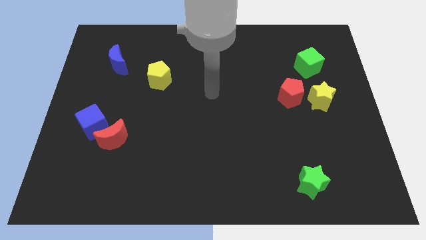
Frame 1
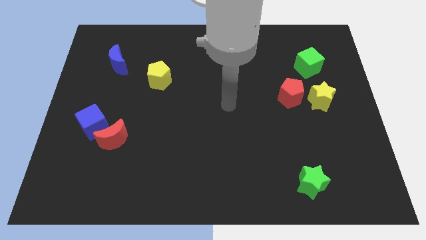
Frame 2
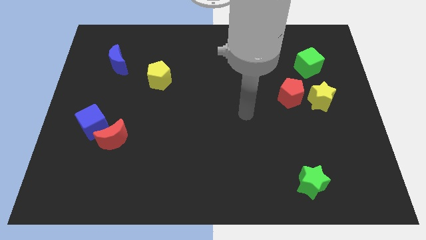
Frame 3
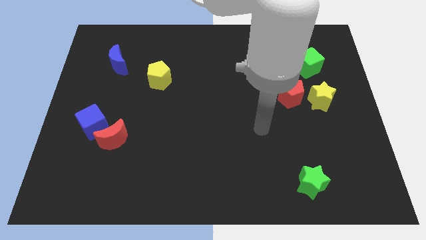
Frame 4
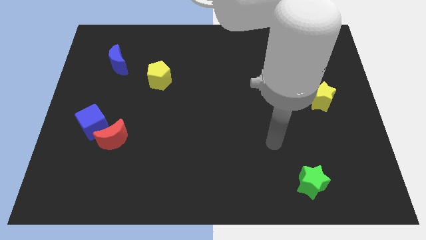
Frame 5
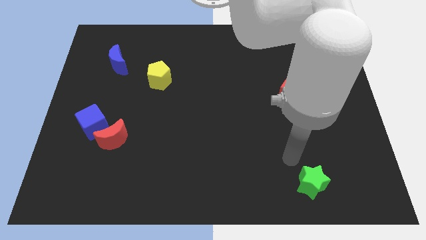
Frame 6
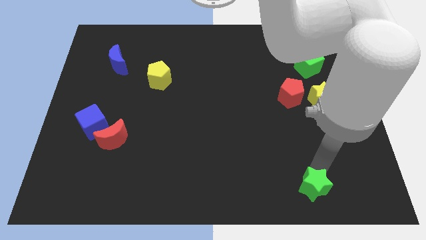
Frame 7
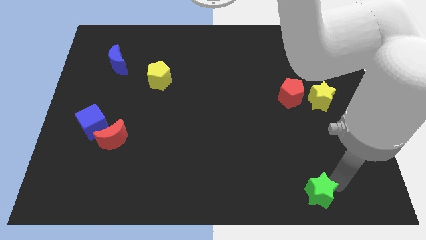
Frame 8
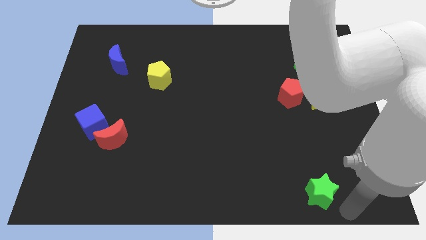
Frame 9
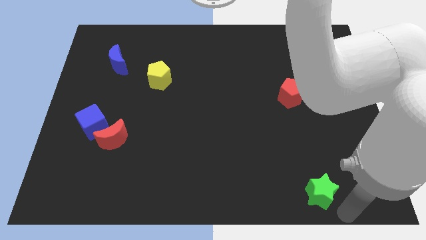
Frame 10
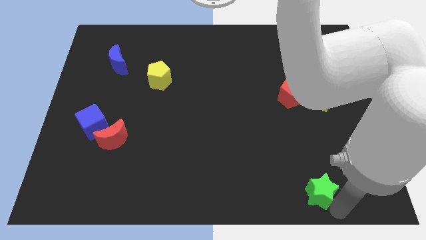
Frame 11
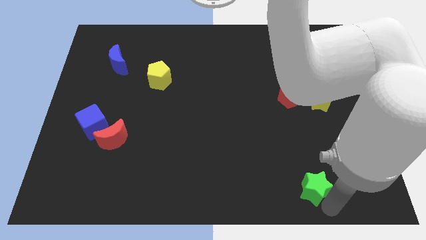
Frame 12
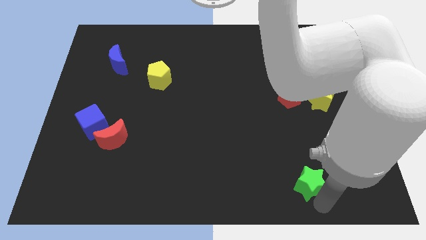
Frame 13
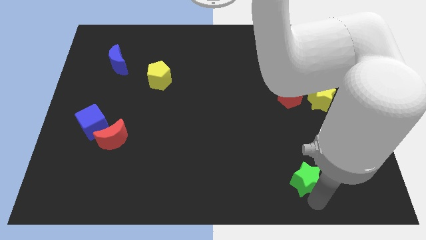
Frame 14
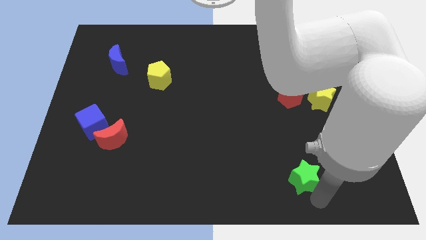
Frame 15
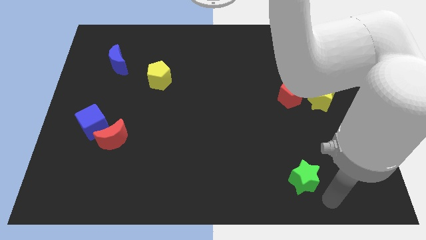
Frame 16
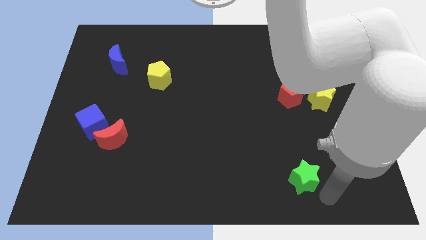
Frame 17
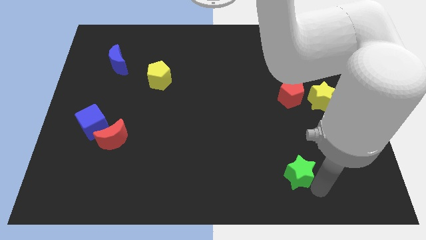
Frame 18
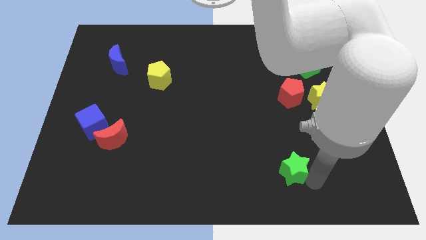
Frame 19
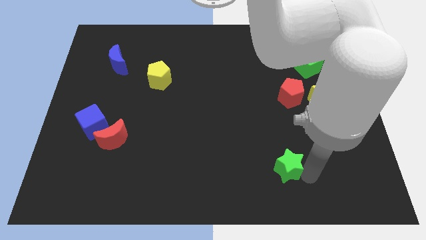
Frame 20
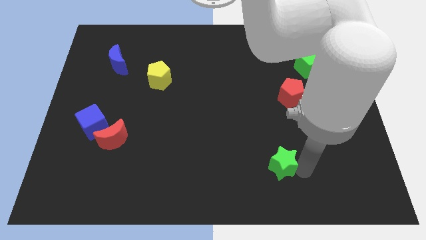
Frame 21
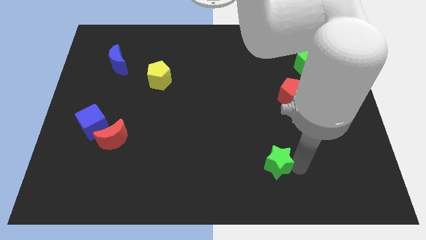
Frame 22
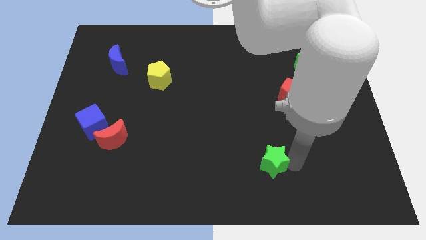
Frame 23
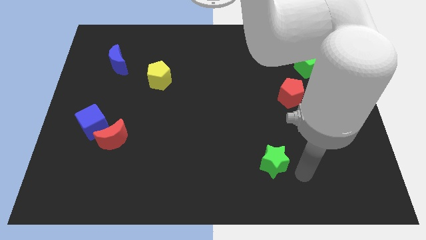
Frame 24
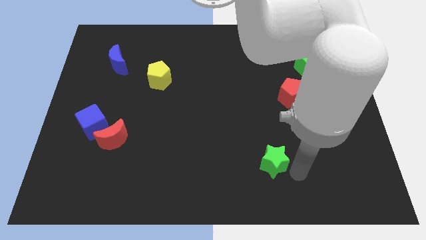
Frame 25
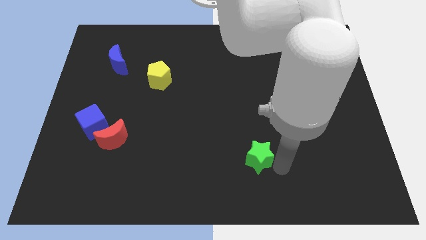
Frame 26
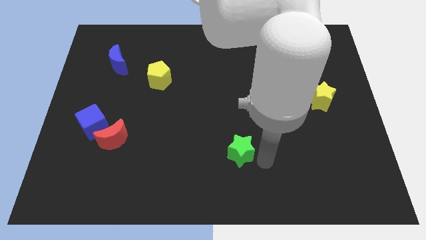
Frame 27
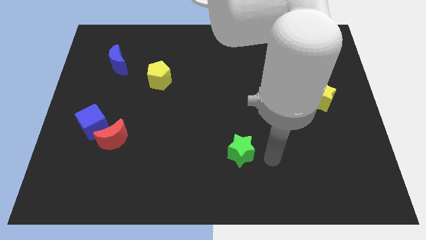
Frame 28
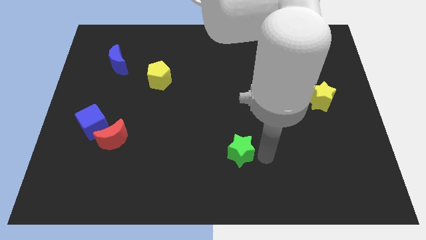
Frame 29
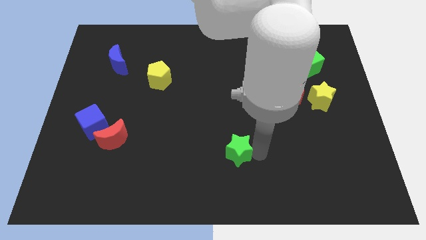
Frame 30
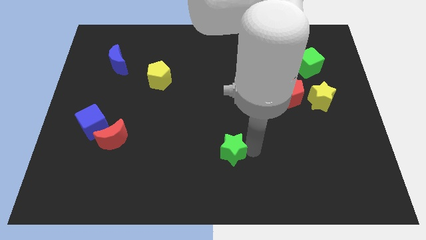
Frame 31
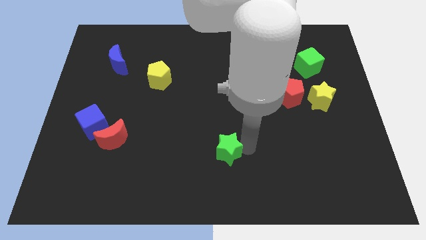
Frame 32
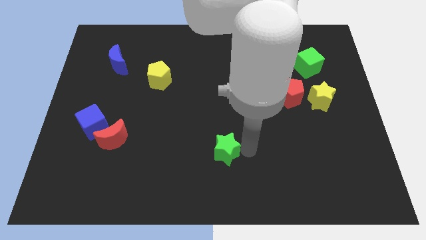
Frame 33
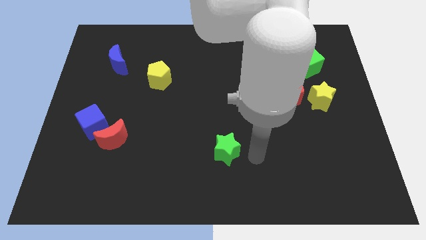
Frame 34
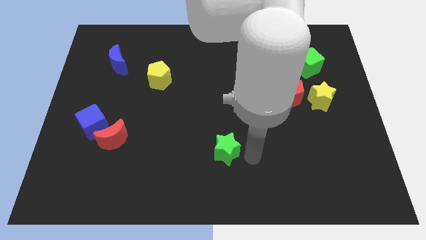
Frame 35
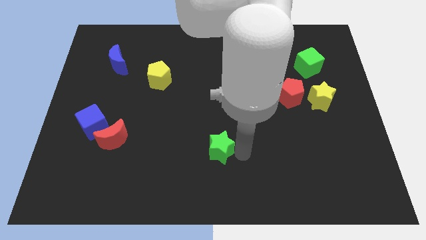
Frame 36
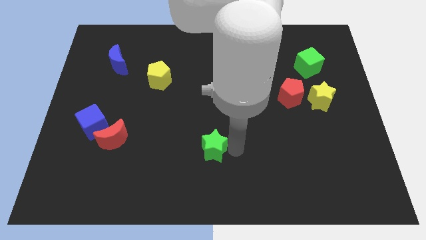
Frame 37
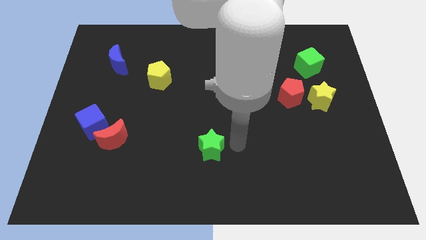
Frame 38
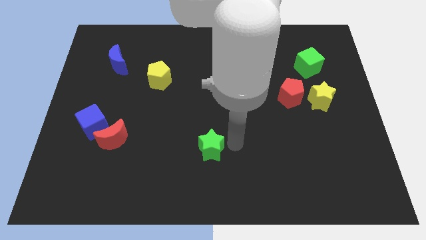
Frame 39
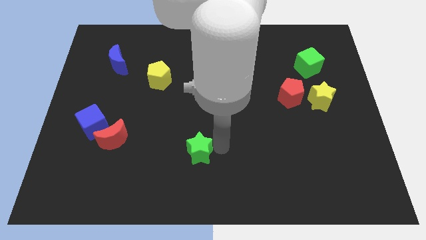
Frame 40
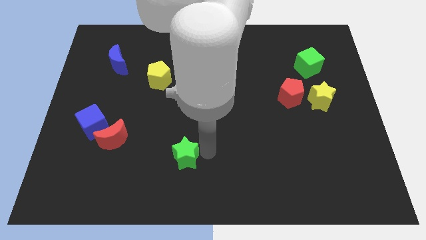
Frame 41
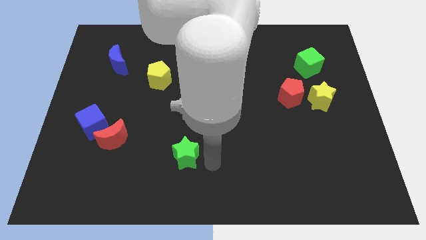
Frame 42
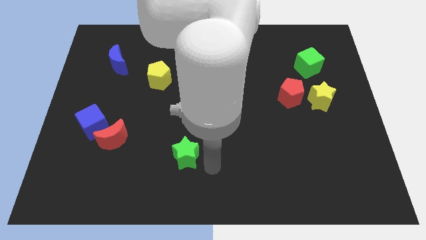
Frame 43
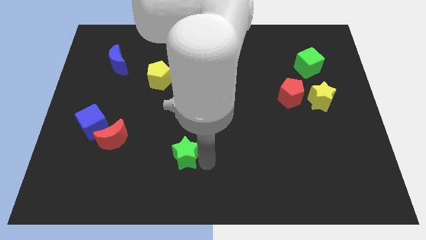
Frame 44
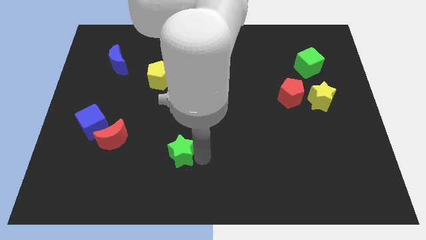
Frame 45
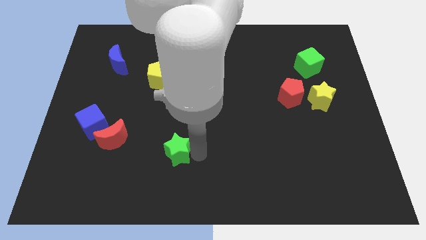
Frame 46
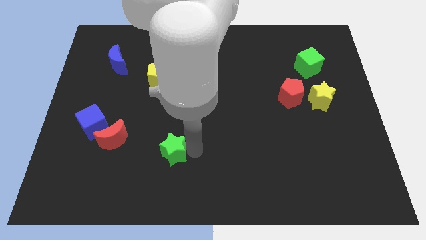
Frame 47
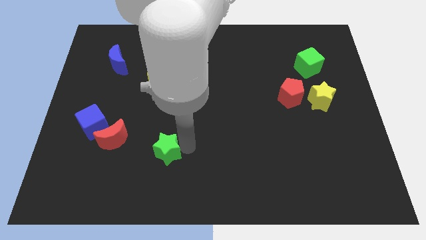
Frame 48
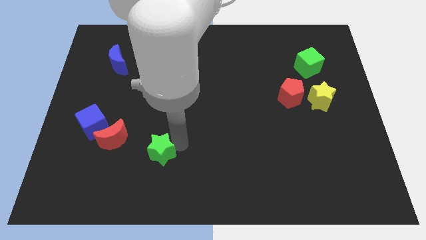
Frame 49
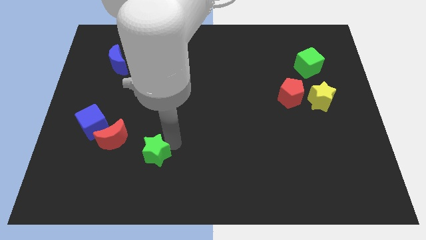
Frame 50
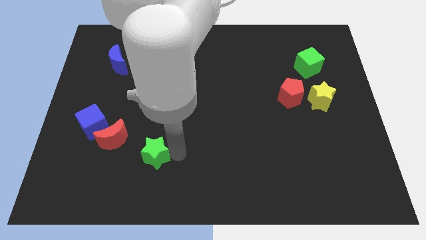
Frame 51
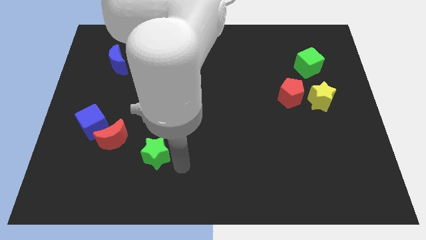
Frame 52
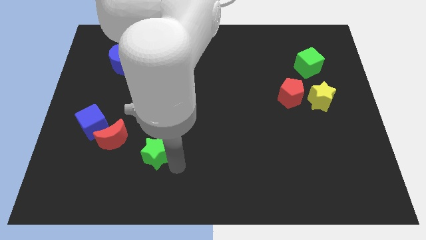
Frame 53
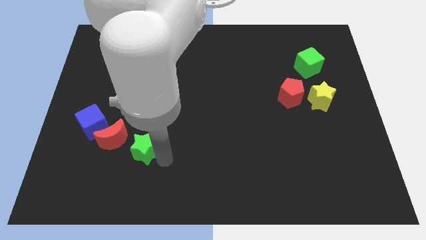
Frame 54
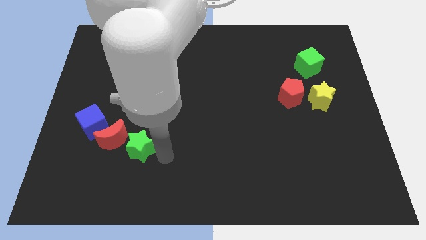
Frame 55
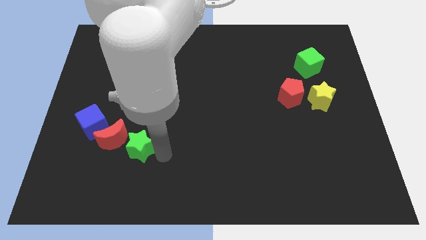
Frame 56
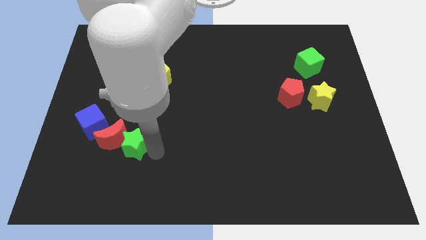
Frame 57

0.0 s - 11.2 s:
move the green star close to the red moon

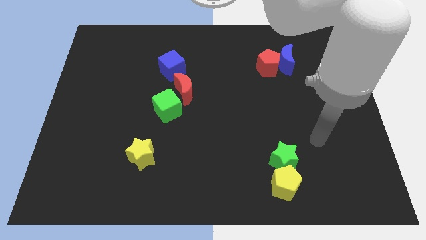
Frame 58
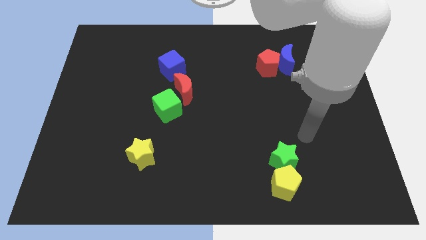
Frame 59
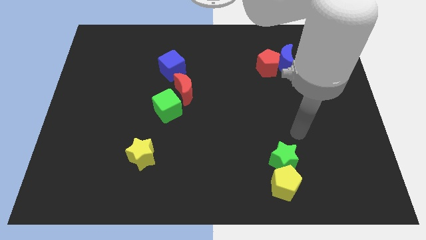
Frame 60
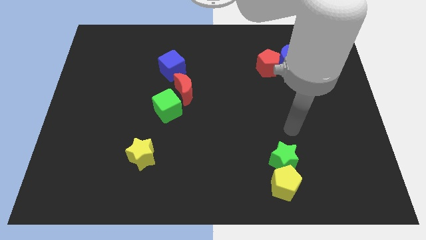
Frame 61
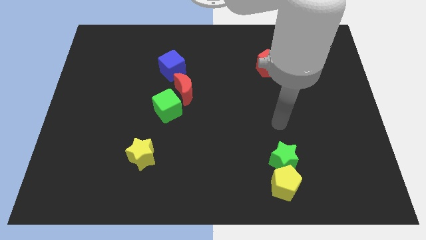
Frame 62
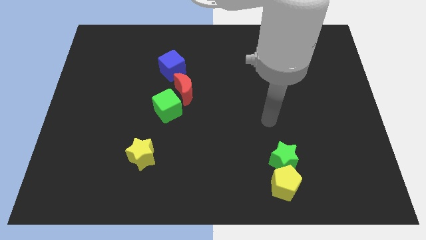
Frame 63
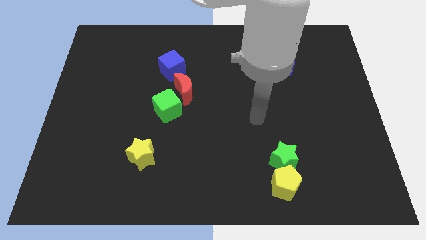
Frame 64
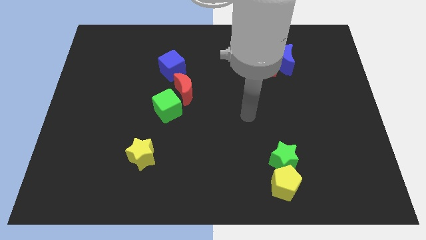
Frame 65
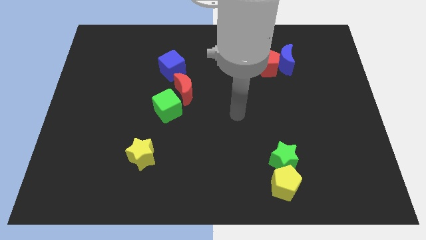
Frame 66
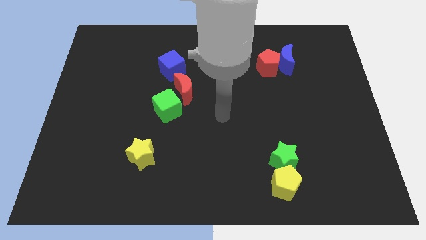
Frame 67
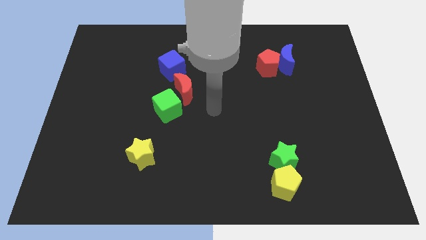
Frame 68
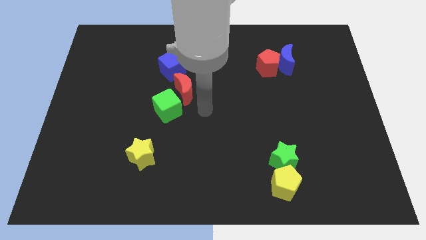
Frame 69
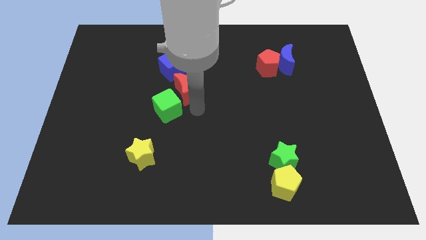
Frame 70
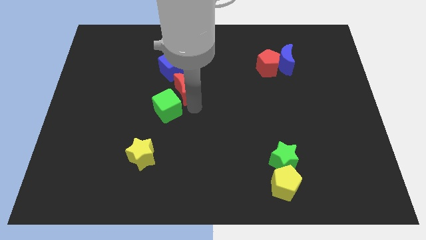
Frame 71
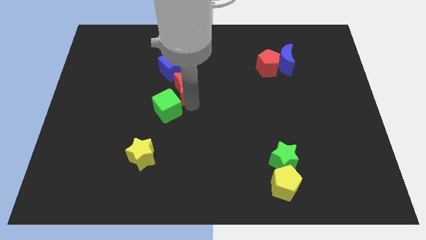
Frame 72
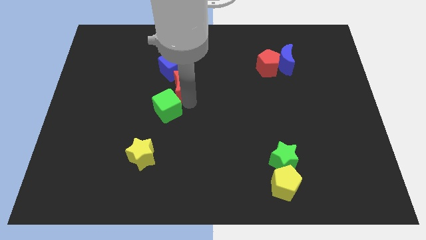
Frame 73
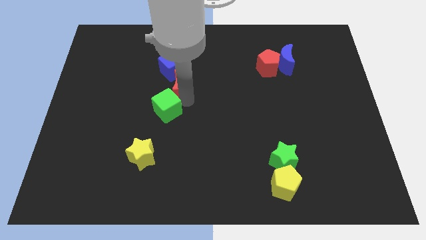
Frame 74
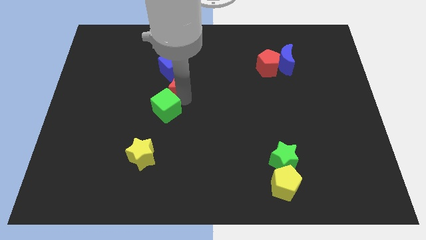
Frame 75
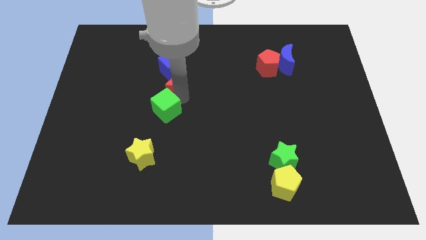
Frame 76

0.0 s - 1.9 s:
slide the red moon to the blue cube

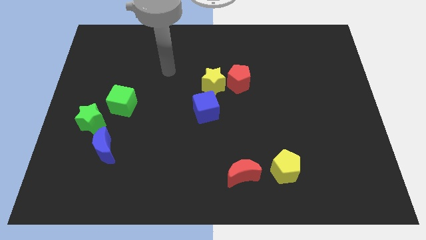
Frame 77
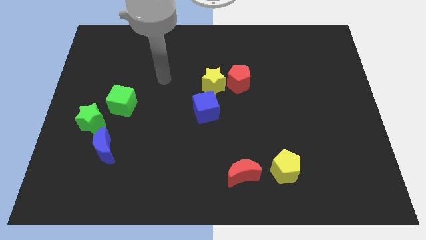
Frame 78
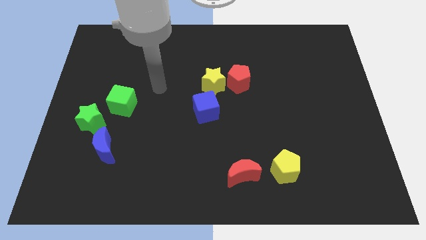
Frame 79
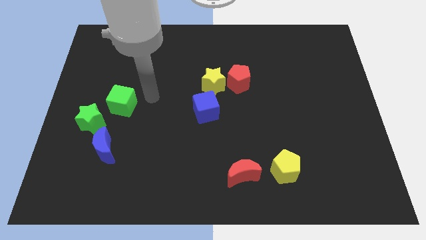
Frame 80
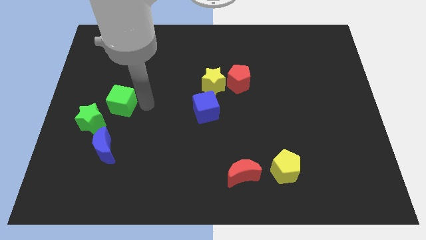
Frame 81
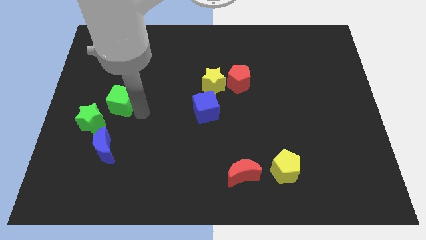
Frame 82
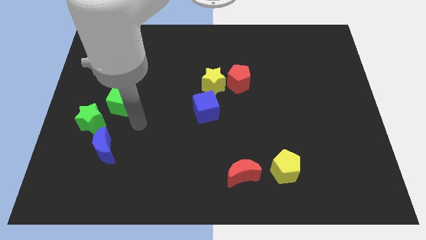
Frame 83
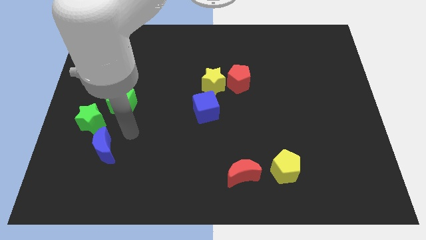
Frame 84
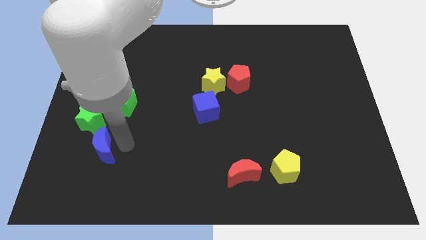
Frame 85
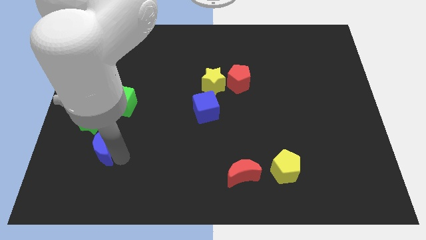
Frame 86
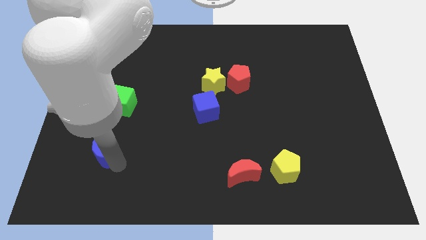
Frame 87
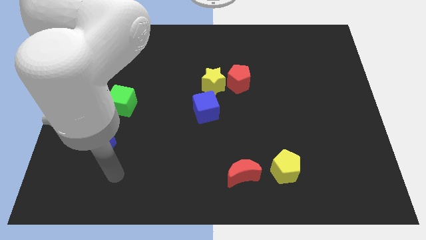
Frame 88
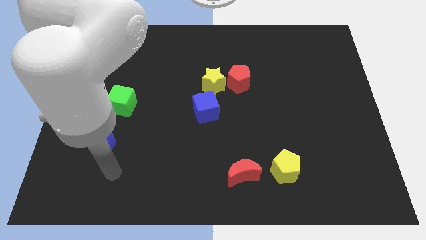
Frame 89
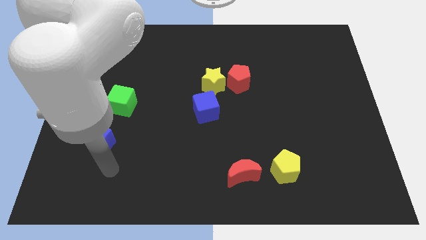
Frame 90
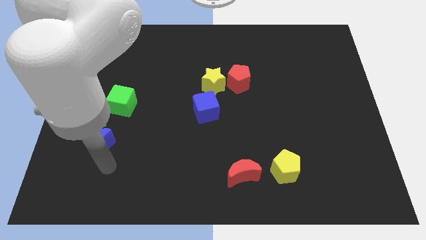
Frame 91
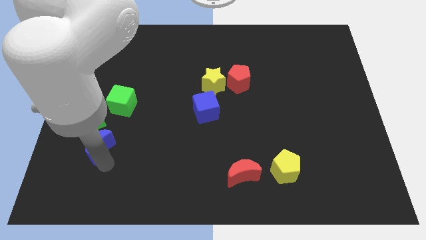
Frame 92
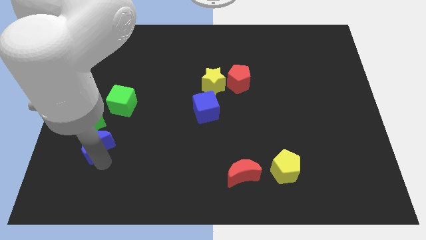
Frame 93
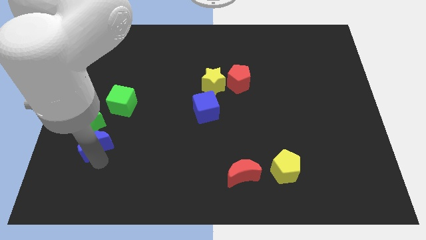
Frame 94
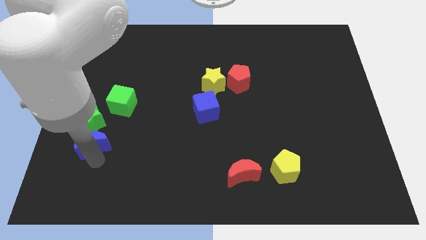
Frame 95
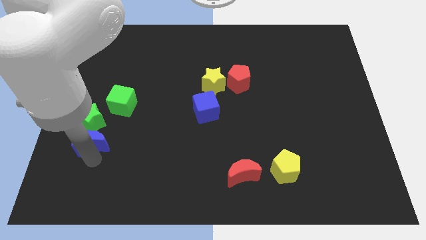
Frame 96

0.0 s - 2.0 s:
put the blue moon to the green star
